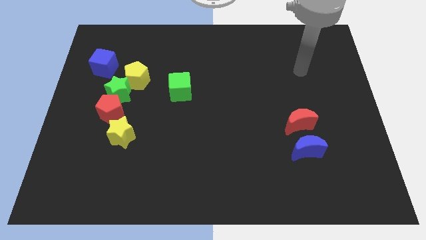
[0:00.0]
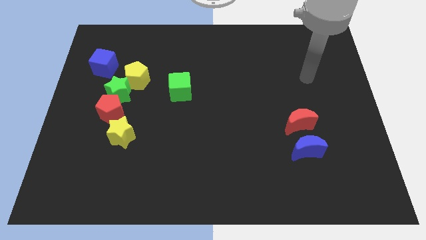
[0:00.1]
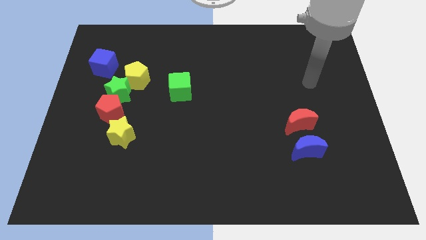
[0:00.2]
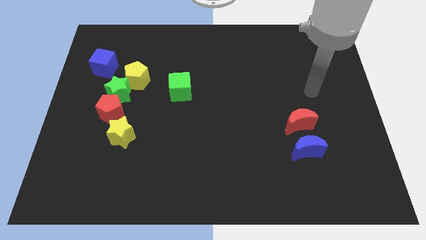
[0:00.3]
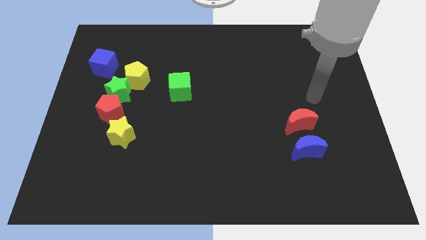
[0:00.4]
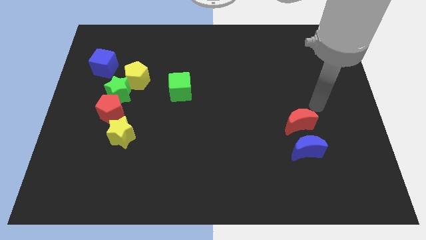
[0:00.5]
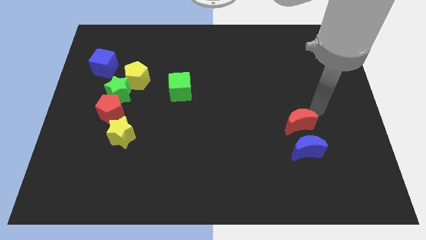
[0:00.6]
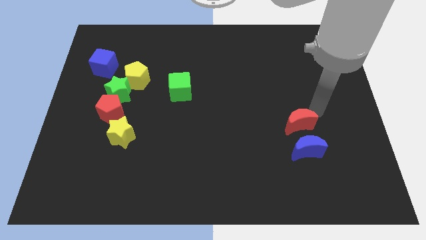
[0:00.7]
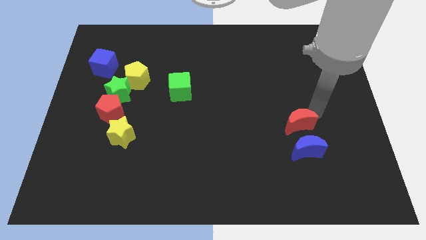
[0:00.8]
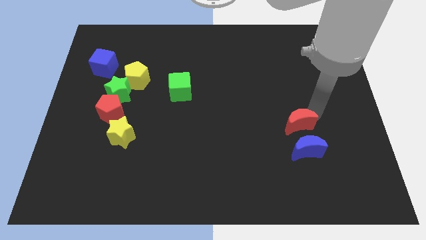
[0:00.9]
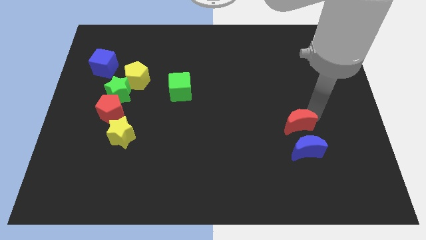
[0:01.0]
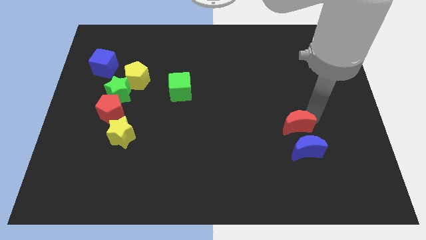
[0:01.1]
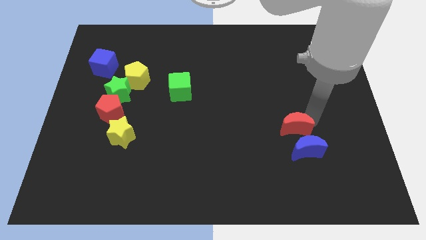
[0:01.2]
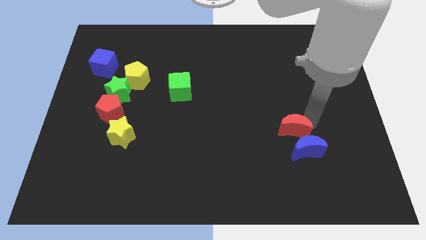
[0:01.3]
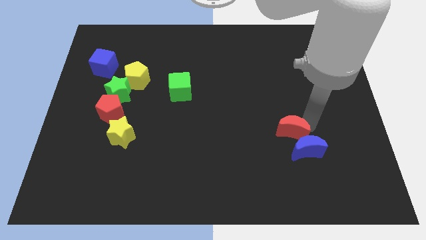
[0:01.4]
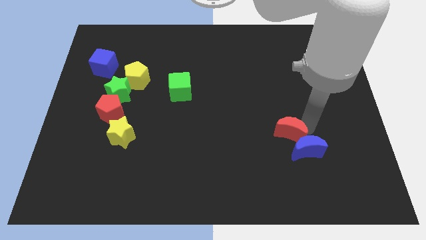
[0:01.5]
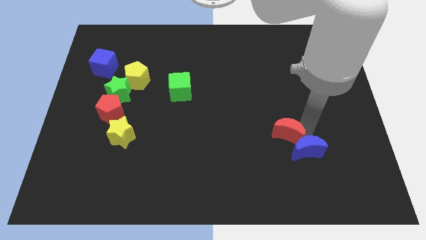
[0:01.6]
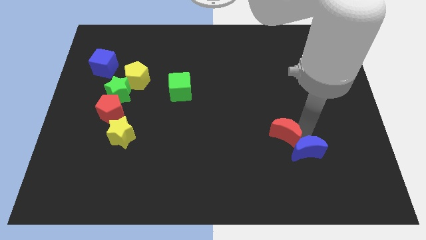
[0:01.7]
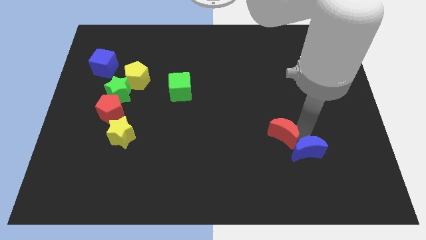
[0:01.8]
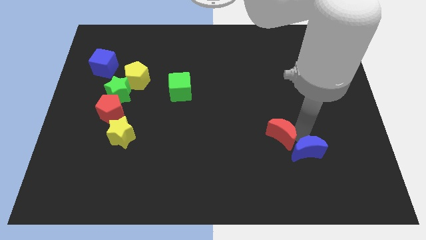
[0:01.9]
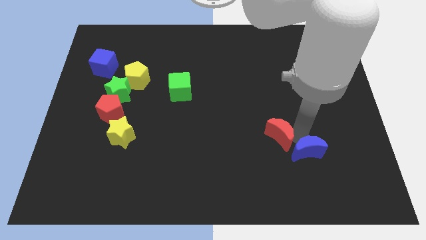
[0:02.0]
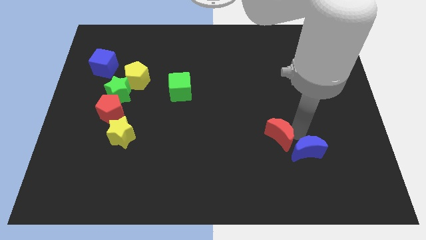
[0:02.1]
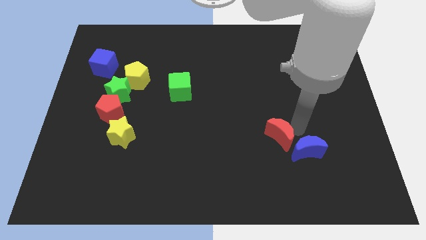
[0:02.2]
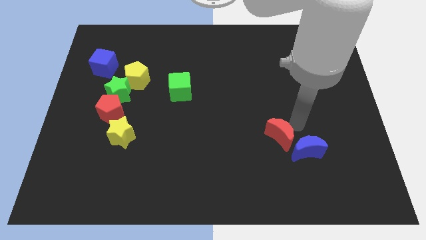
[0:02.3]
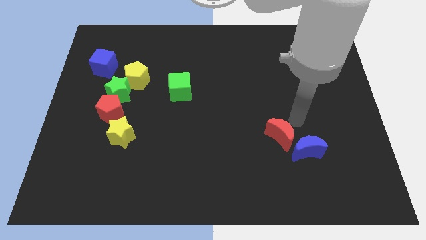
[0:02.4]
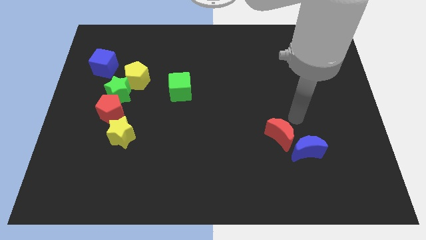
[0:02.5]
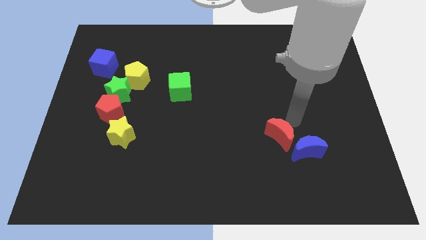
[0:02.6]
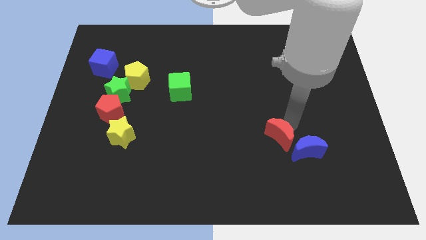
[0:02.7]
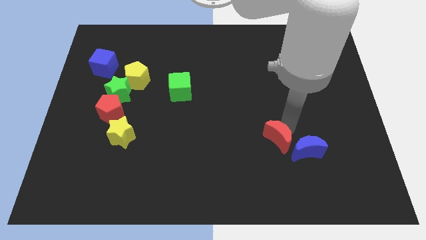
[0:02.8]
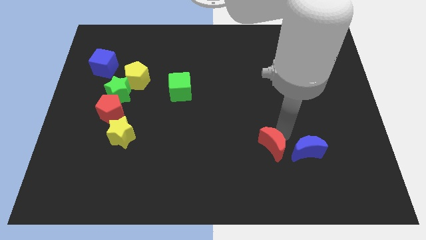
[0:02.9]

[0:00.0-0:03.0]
push the red moon down and then left a little bit

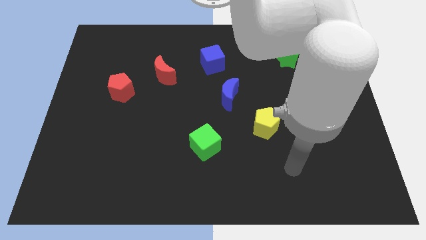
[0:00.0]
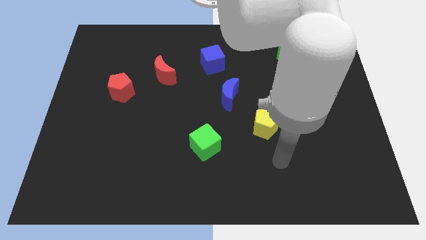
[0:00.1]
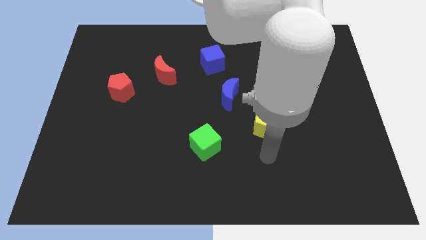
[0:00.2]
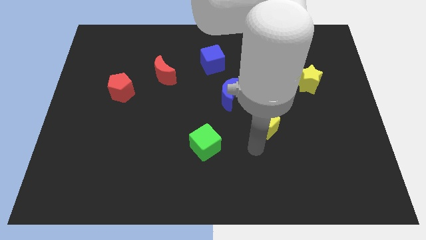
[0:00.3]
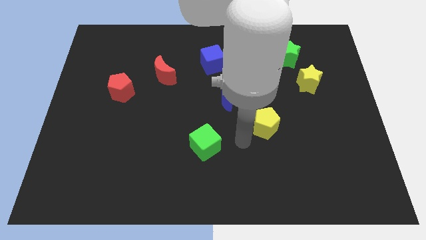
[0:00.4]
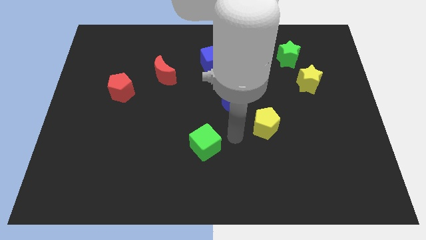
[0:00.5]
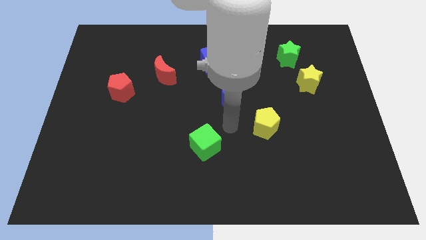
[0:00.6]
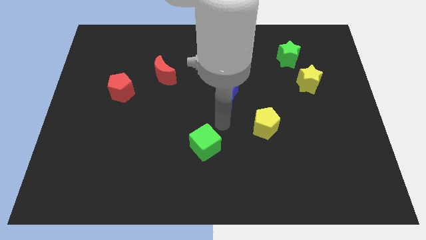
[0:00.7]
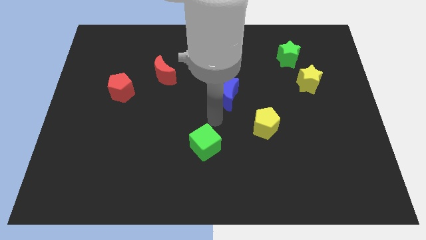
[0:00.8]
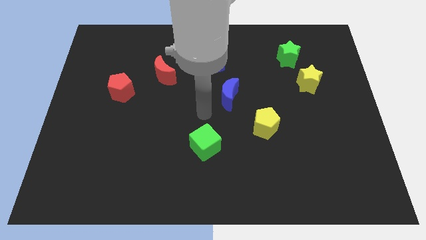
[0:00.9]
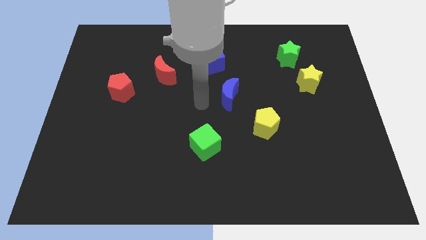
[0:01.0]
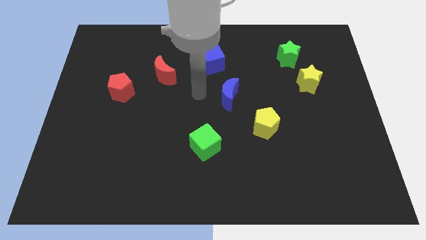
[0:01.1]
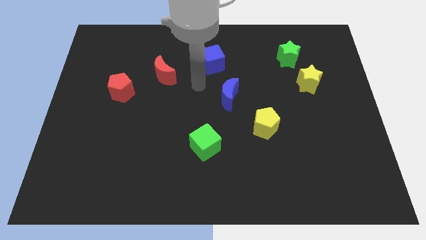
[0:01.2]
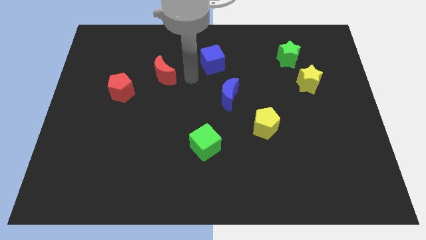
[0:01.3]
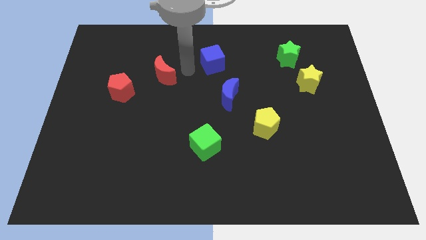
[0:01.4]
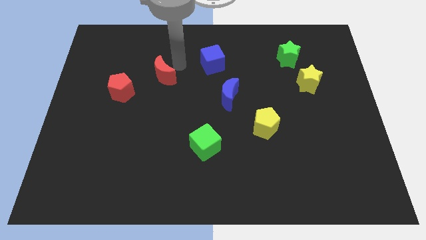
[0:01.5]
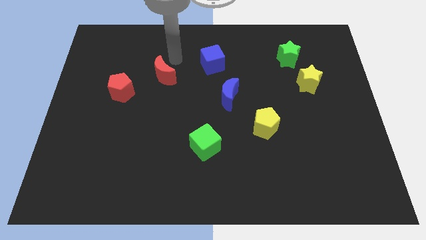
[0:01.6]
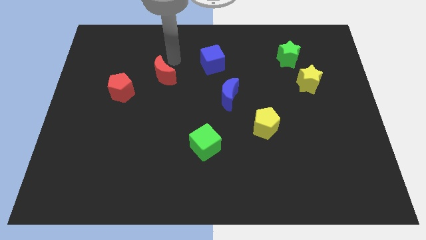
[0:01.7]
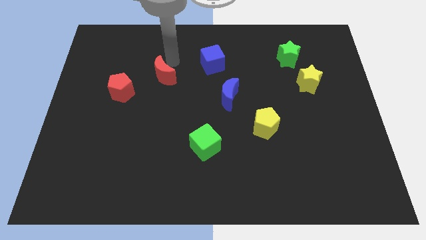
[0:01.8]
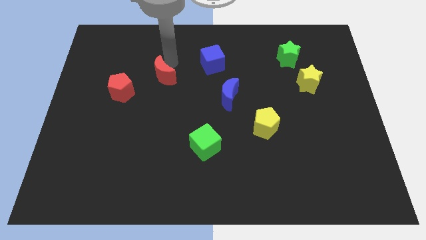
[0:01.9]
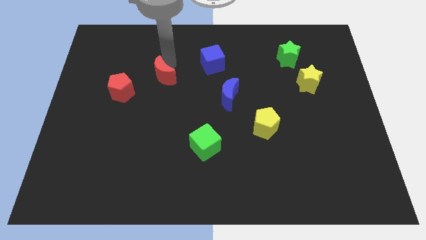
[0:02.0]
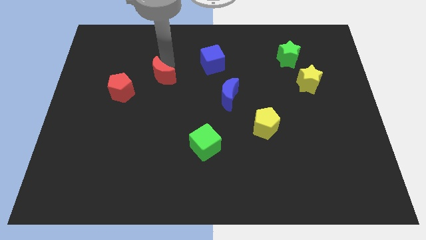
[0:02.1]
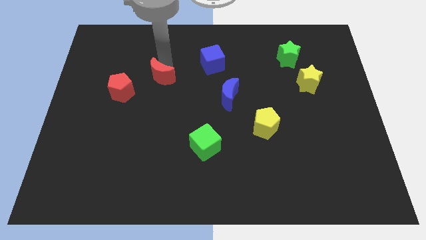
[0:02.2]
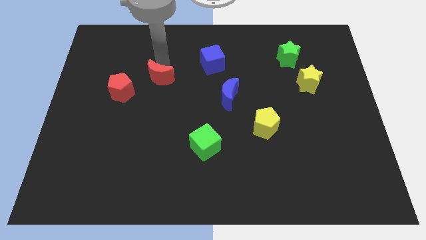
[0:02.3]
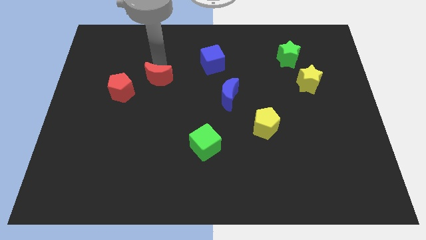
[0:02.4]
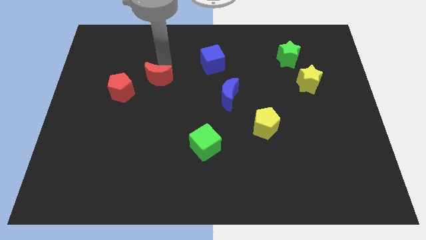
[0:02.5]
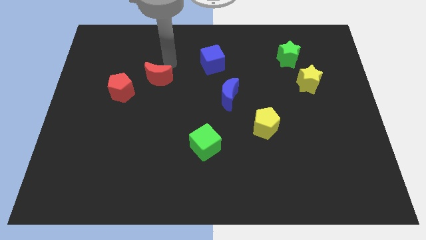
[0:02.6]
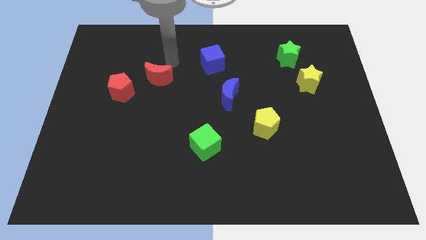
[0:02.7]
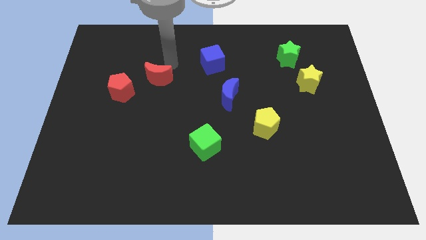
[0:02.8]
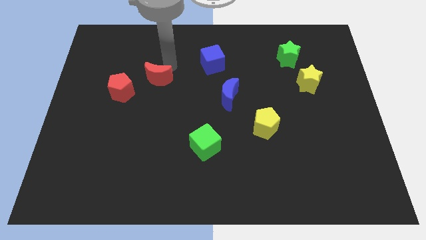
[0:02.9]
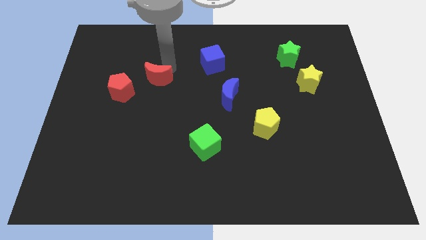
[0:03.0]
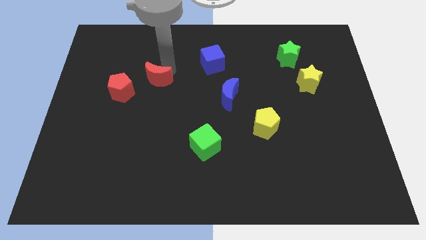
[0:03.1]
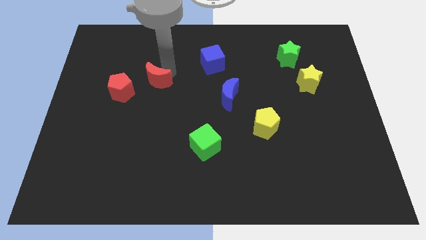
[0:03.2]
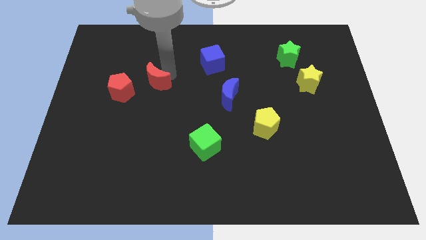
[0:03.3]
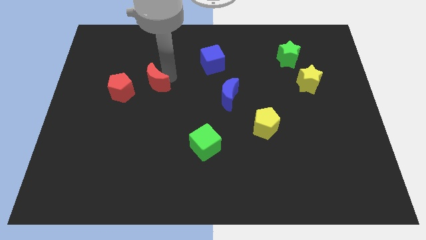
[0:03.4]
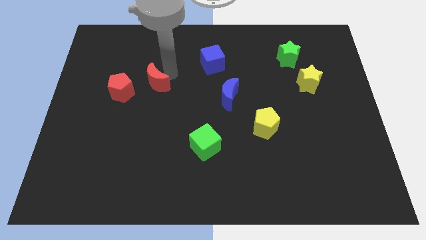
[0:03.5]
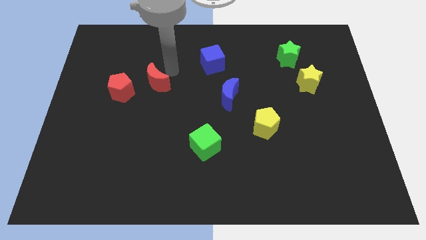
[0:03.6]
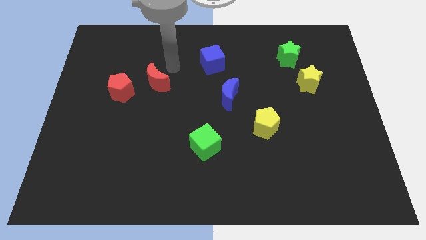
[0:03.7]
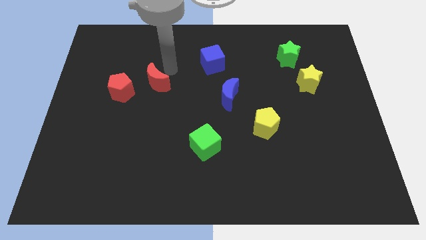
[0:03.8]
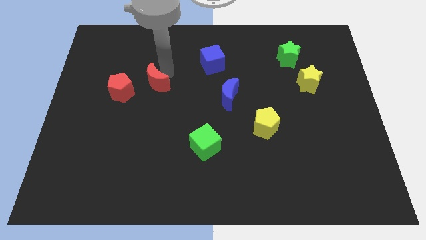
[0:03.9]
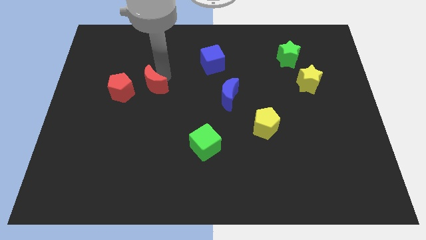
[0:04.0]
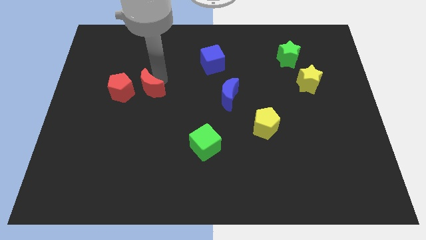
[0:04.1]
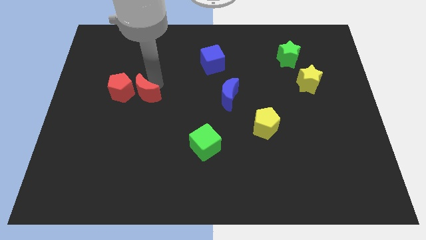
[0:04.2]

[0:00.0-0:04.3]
slide the red moon a little down and then left

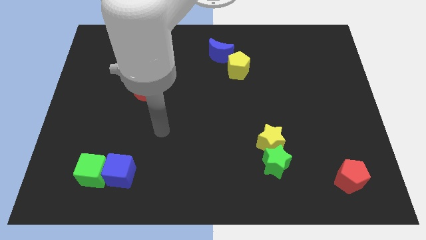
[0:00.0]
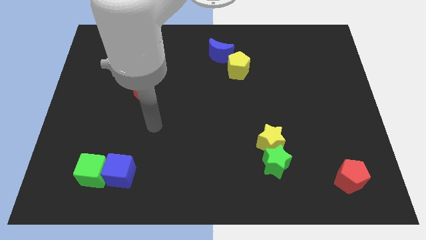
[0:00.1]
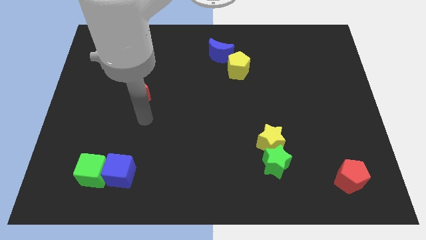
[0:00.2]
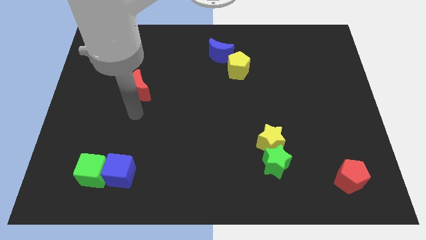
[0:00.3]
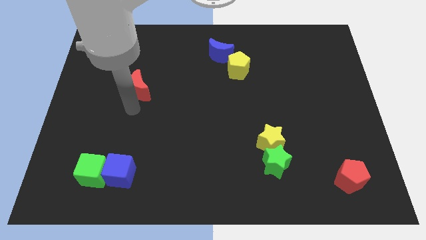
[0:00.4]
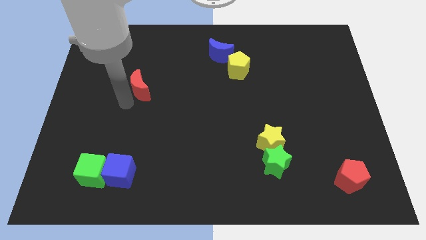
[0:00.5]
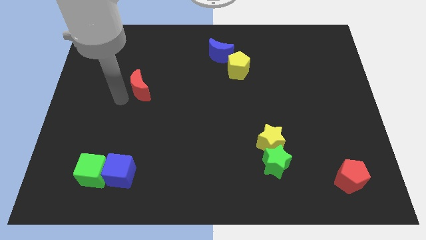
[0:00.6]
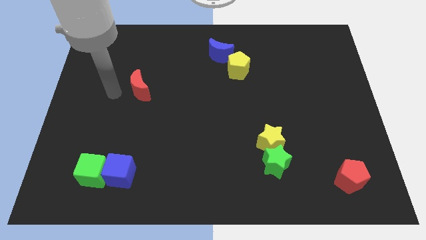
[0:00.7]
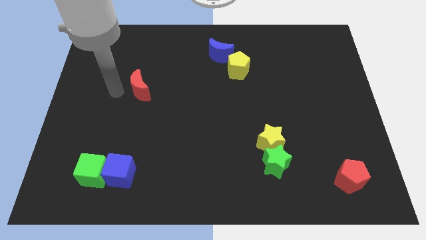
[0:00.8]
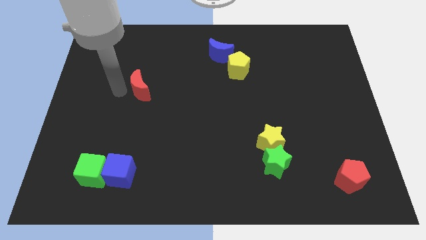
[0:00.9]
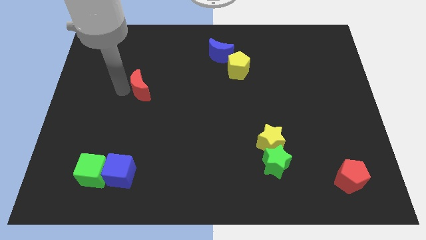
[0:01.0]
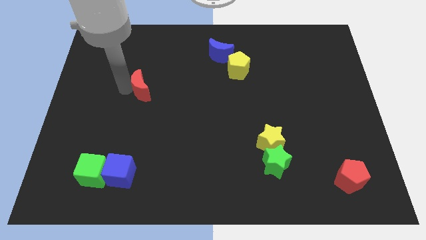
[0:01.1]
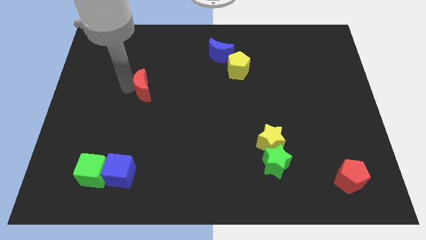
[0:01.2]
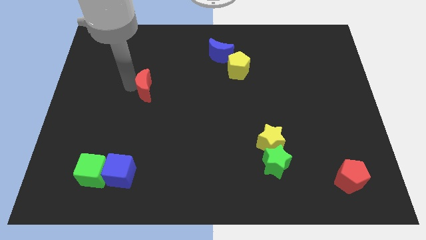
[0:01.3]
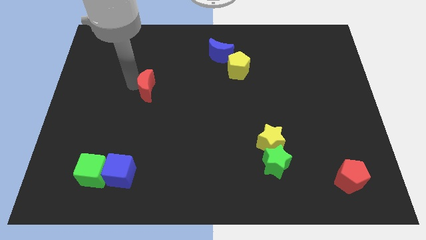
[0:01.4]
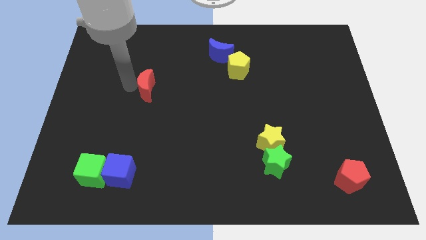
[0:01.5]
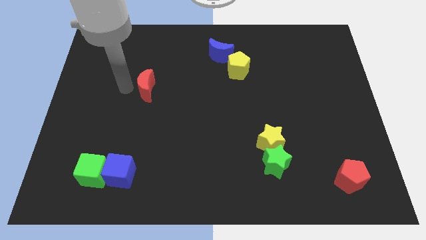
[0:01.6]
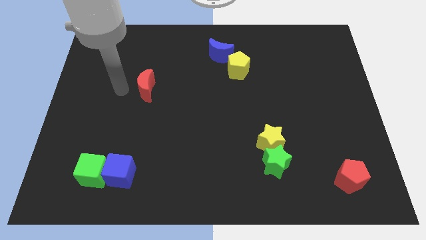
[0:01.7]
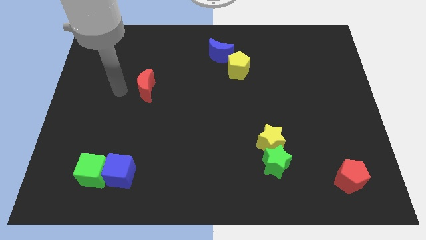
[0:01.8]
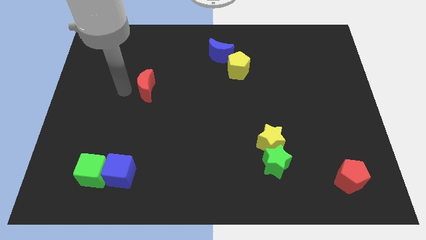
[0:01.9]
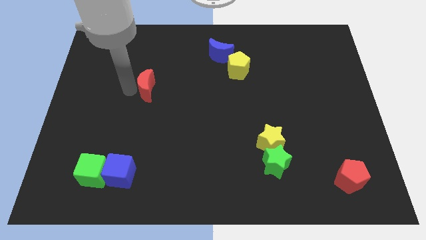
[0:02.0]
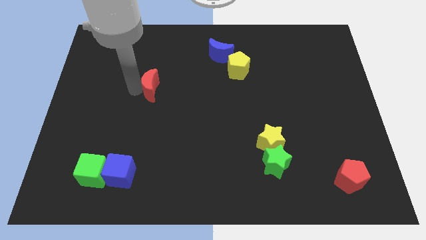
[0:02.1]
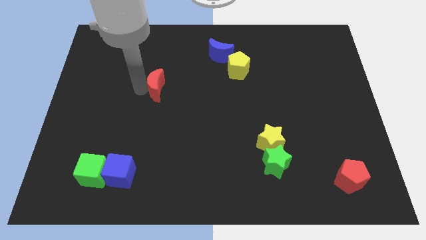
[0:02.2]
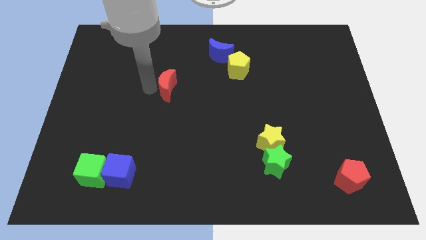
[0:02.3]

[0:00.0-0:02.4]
slide the red moon to the right a little
